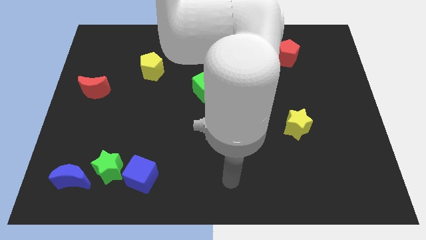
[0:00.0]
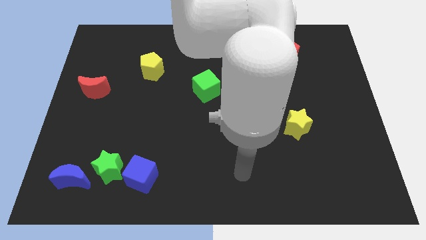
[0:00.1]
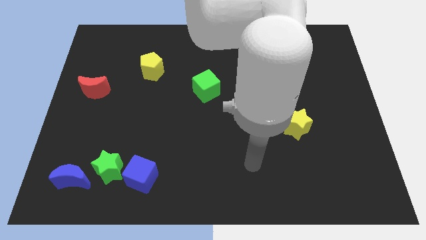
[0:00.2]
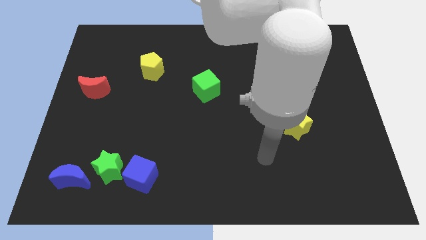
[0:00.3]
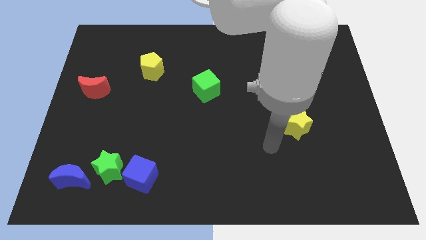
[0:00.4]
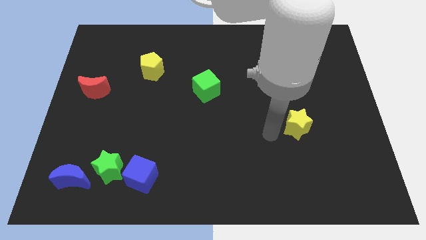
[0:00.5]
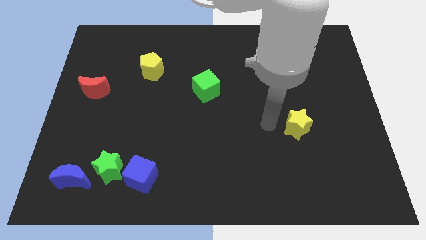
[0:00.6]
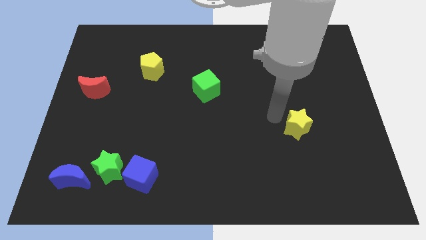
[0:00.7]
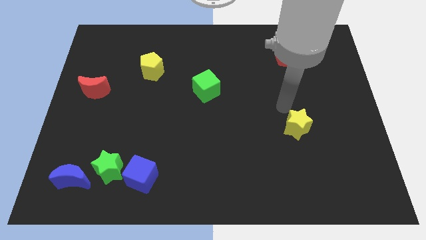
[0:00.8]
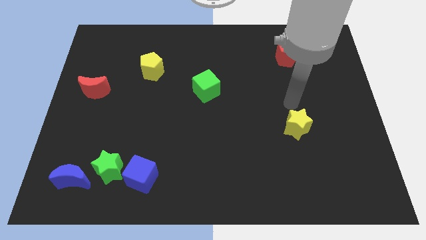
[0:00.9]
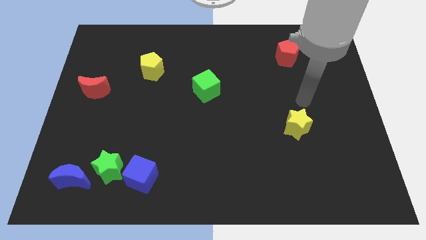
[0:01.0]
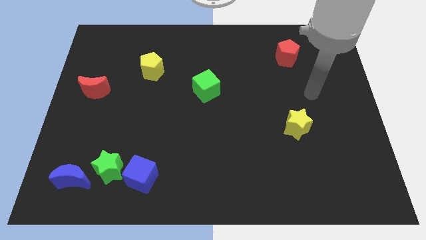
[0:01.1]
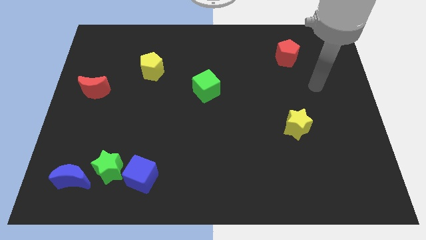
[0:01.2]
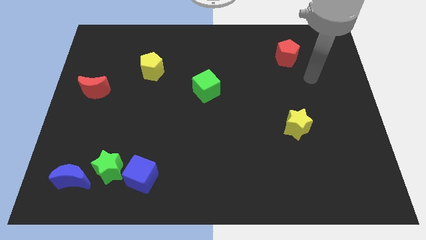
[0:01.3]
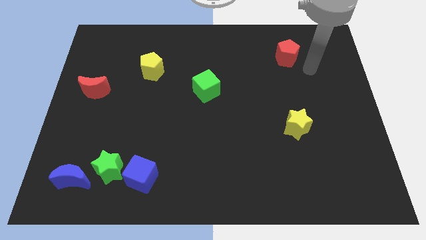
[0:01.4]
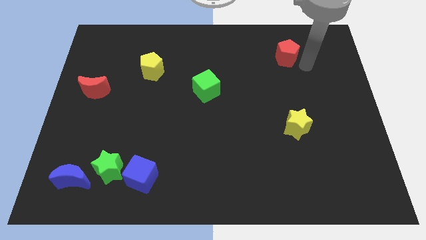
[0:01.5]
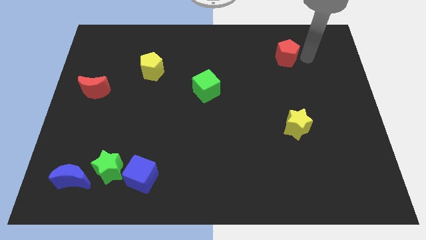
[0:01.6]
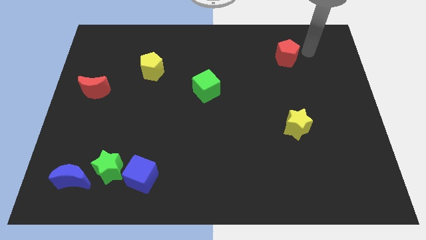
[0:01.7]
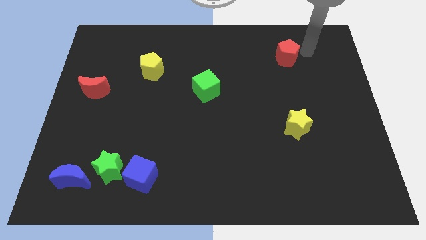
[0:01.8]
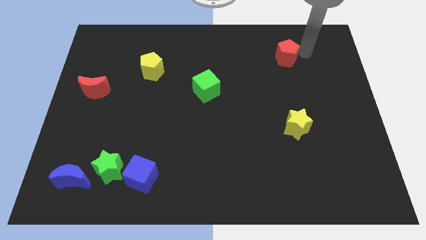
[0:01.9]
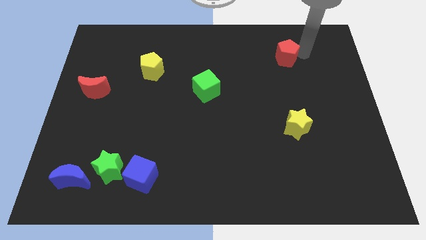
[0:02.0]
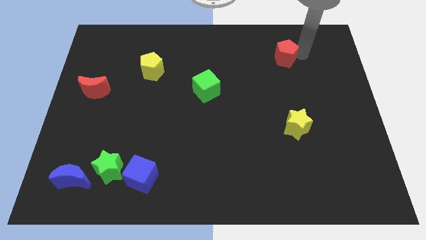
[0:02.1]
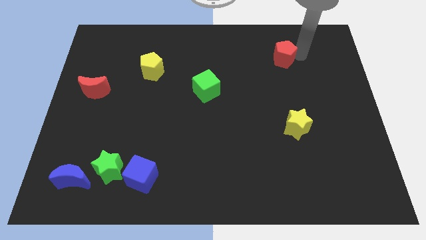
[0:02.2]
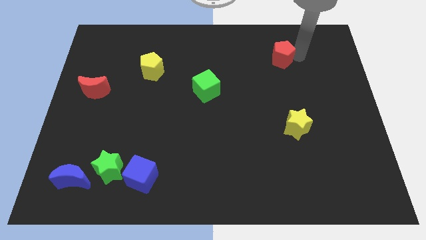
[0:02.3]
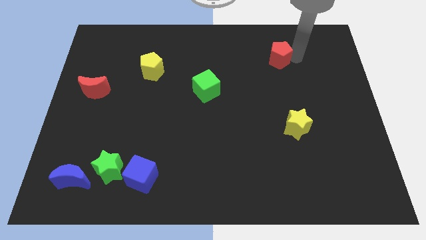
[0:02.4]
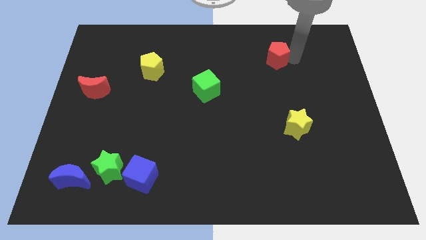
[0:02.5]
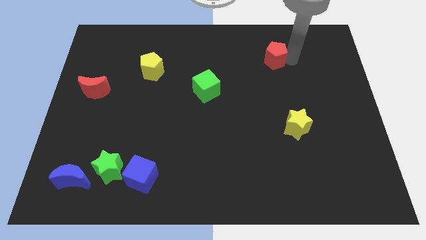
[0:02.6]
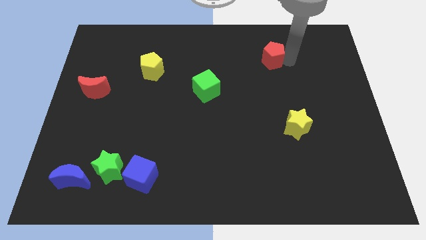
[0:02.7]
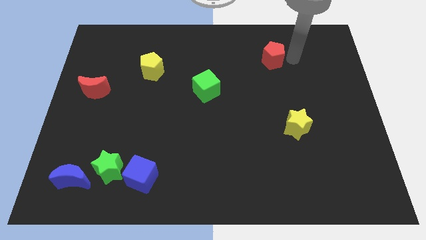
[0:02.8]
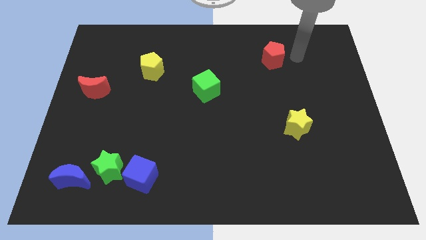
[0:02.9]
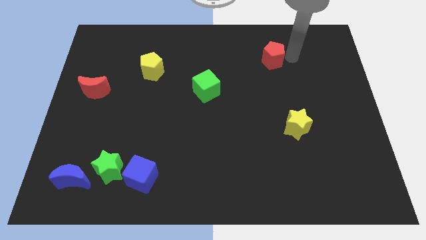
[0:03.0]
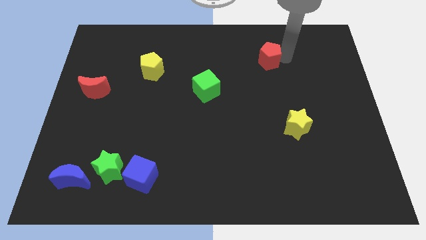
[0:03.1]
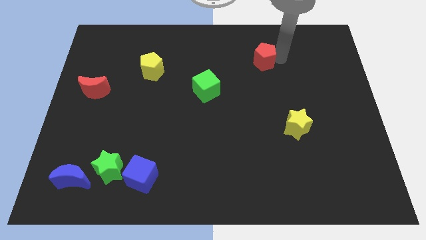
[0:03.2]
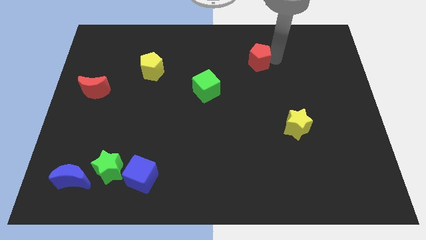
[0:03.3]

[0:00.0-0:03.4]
slightly slide the red pentagon left

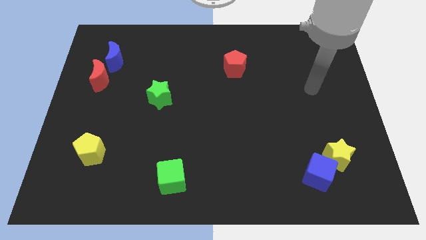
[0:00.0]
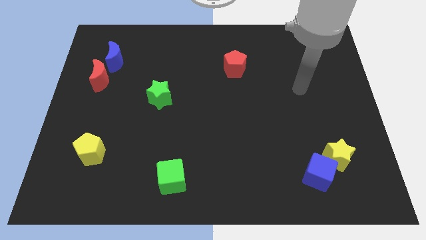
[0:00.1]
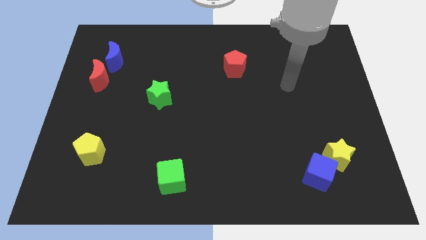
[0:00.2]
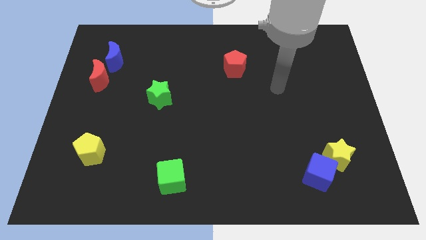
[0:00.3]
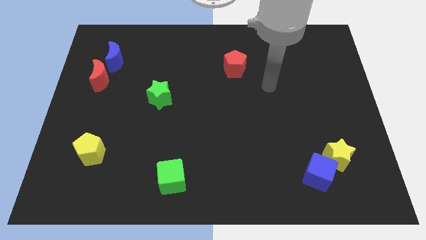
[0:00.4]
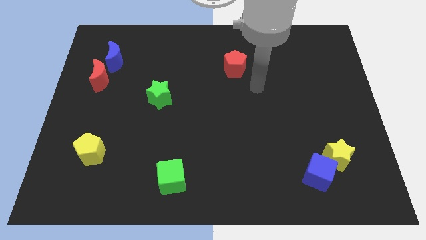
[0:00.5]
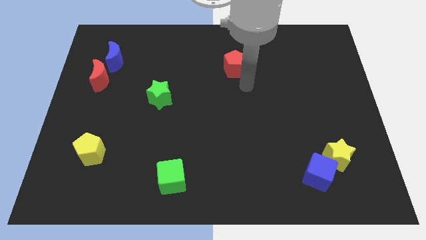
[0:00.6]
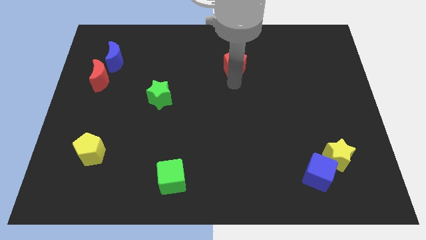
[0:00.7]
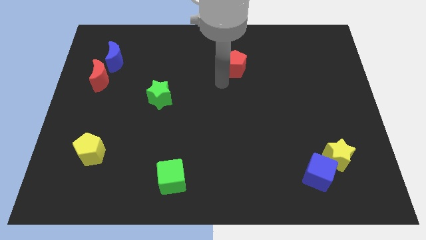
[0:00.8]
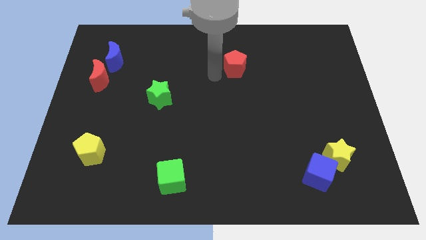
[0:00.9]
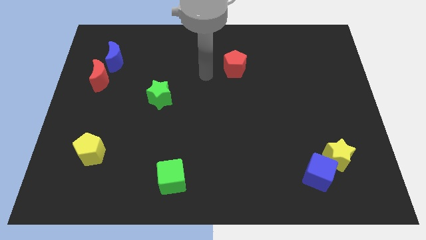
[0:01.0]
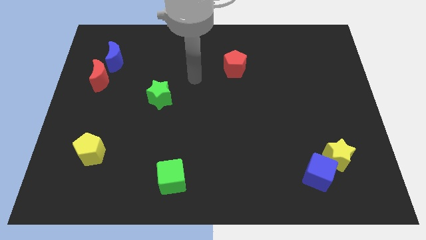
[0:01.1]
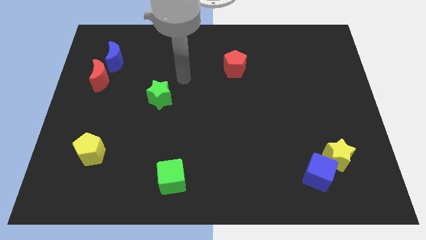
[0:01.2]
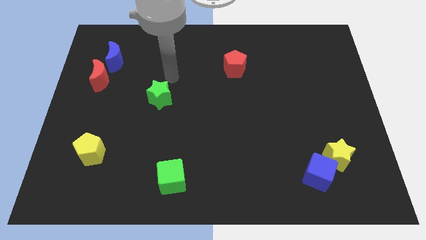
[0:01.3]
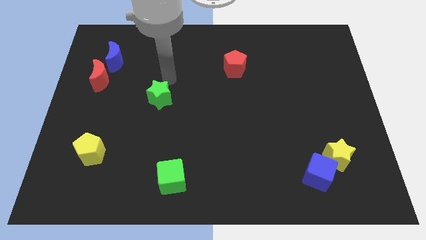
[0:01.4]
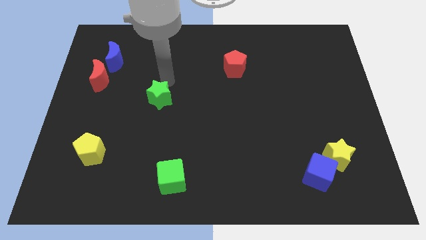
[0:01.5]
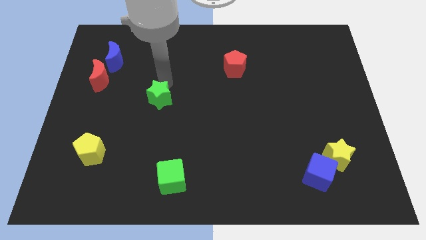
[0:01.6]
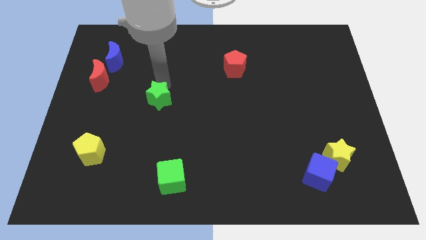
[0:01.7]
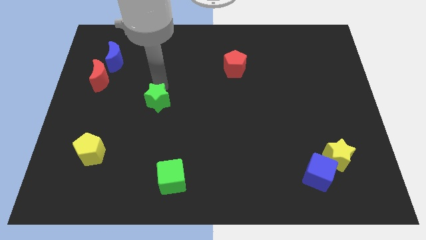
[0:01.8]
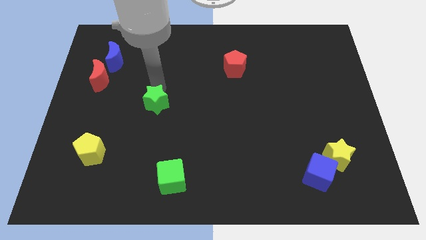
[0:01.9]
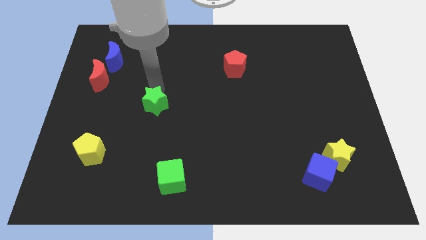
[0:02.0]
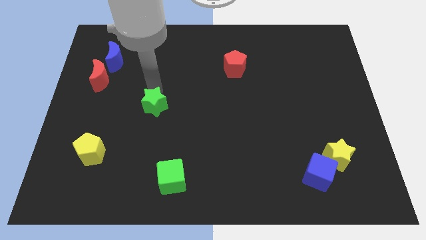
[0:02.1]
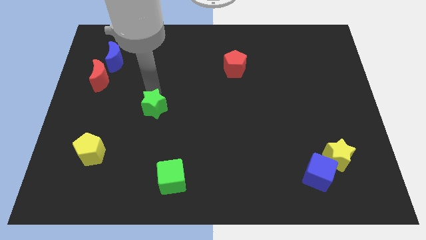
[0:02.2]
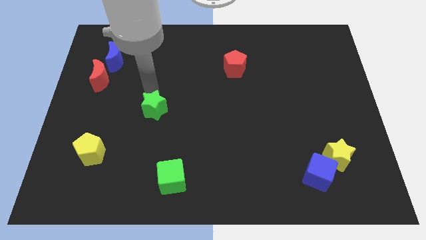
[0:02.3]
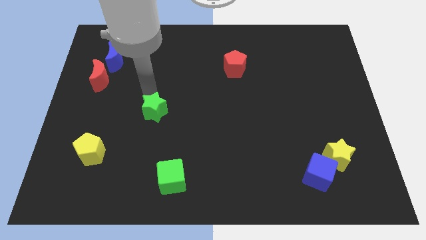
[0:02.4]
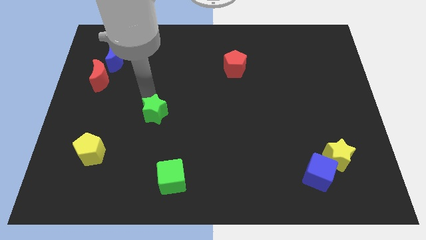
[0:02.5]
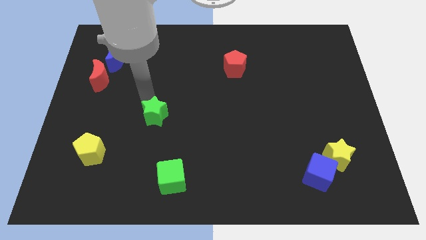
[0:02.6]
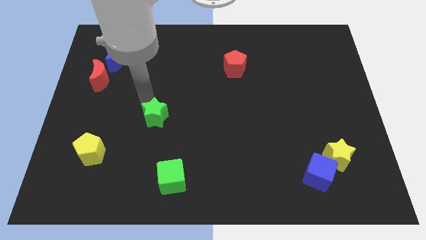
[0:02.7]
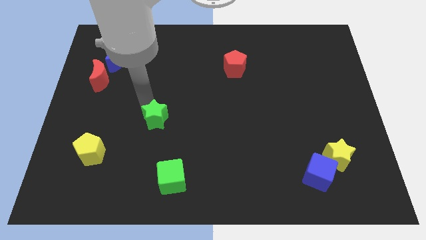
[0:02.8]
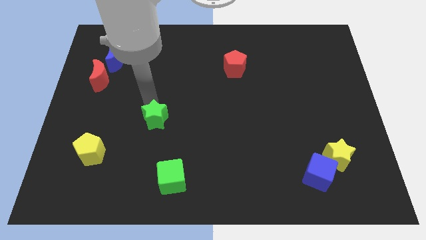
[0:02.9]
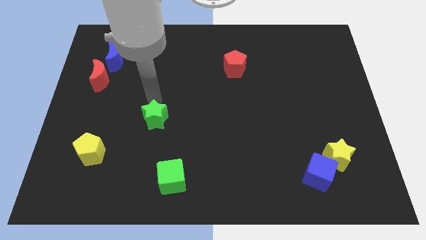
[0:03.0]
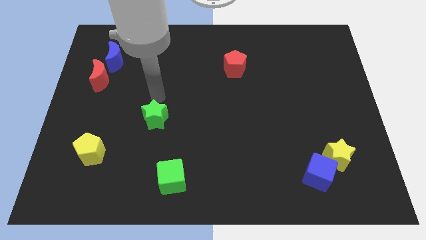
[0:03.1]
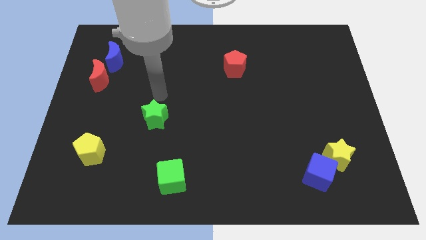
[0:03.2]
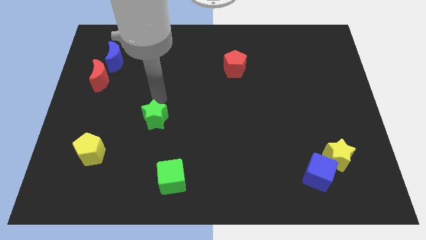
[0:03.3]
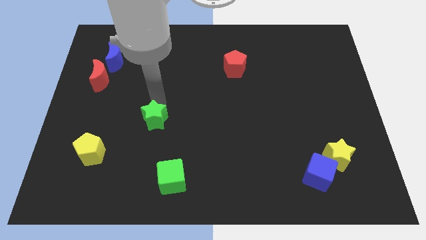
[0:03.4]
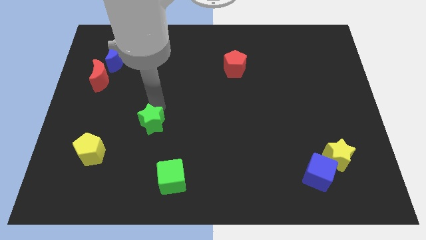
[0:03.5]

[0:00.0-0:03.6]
push the green star downwards a little bit

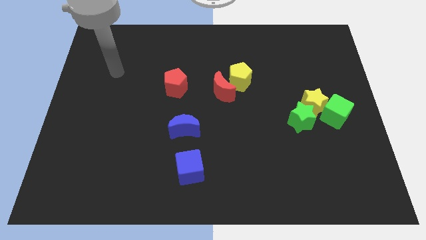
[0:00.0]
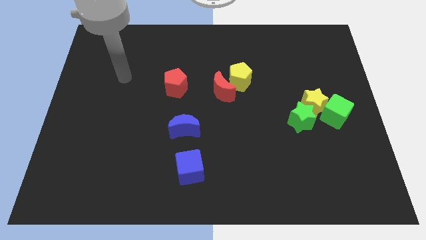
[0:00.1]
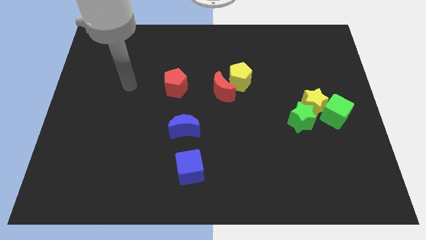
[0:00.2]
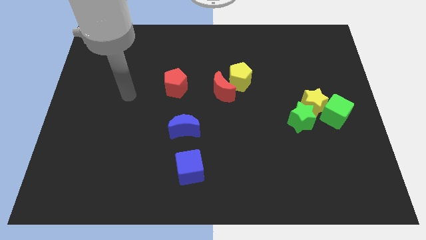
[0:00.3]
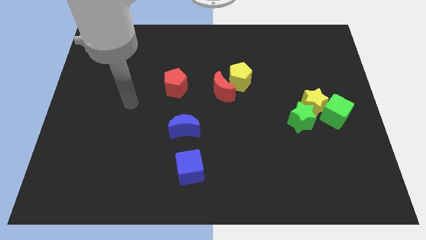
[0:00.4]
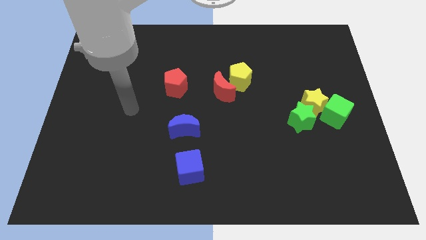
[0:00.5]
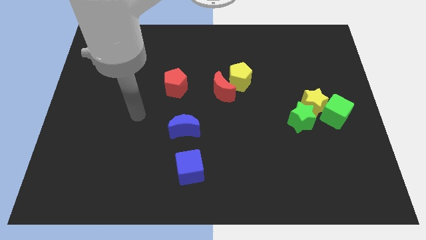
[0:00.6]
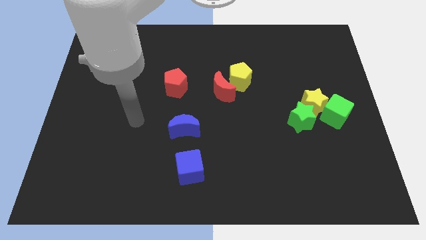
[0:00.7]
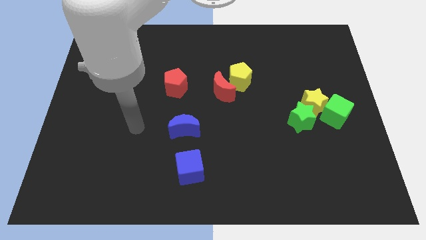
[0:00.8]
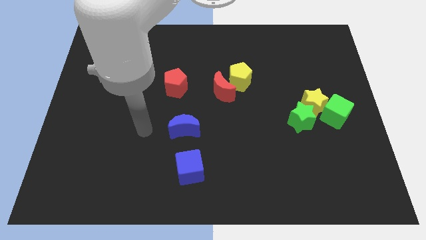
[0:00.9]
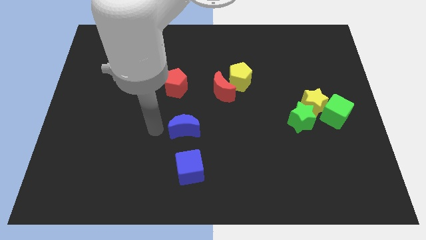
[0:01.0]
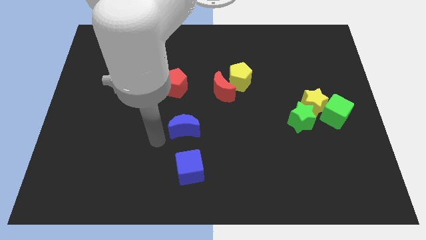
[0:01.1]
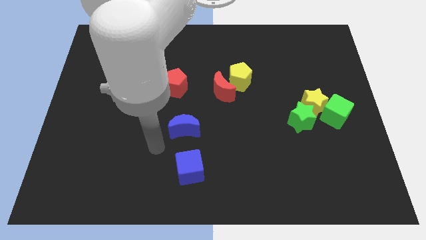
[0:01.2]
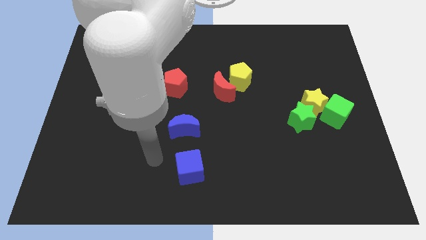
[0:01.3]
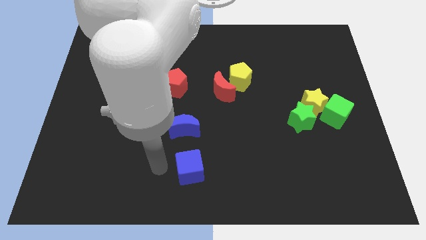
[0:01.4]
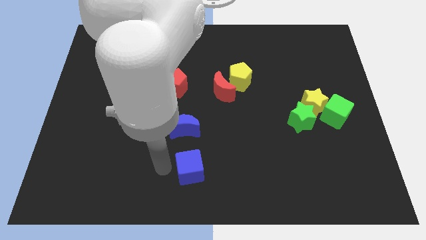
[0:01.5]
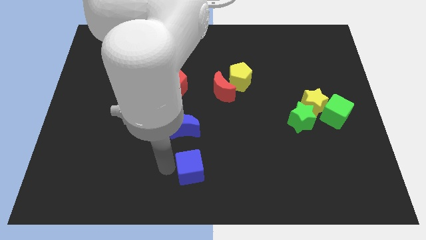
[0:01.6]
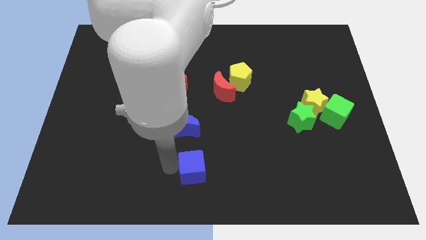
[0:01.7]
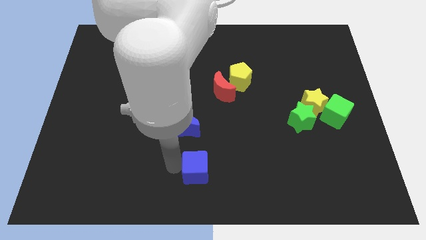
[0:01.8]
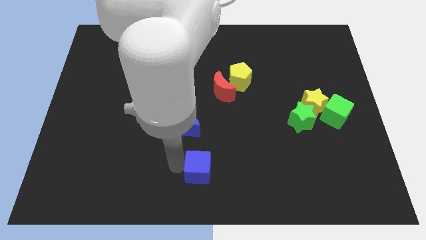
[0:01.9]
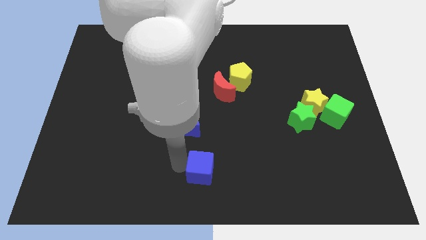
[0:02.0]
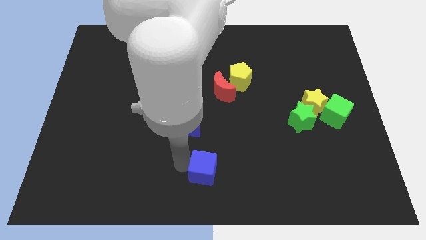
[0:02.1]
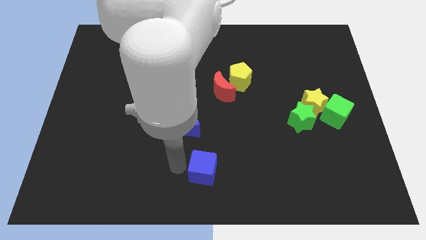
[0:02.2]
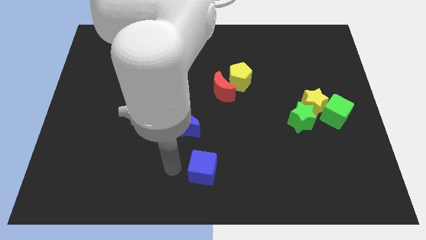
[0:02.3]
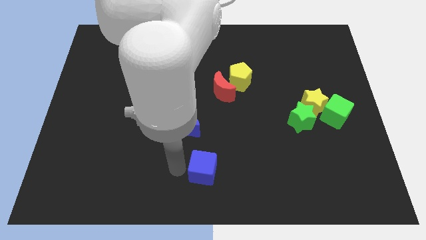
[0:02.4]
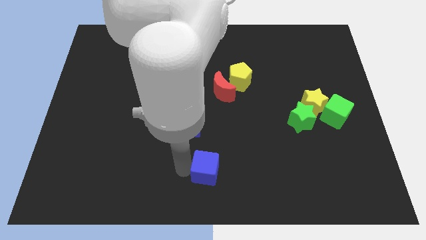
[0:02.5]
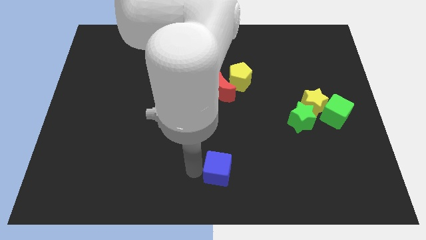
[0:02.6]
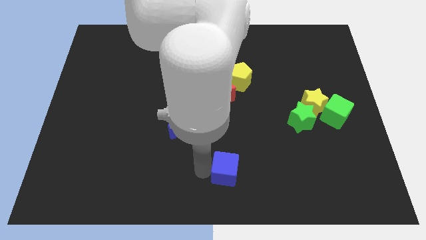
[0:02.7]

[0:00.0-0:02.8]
push the blue cube slightly to the right
